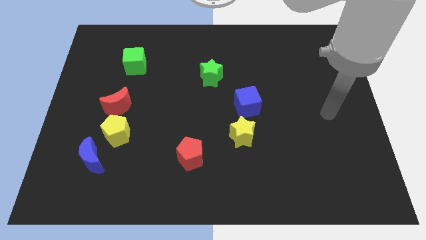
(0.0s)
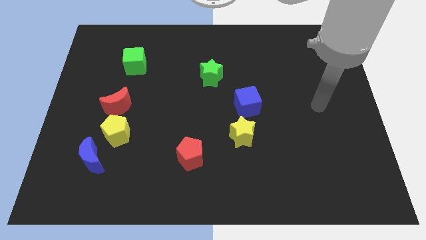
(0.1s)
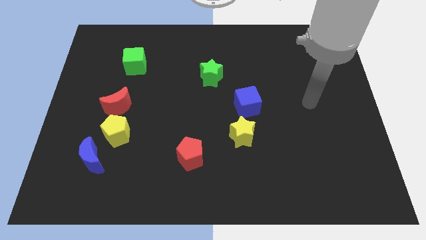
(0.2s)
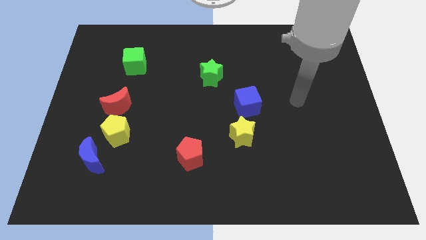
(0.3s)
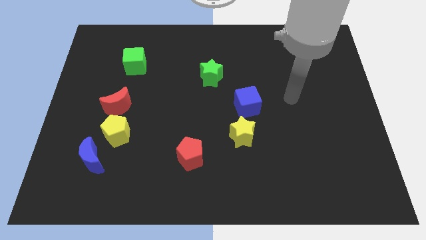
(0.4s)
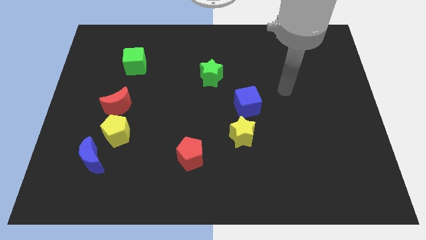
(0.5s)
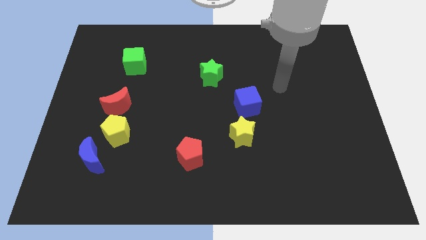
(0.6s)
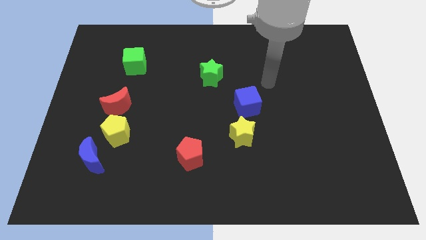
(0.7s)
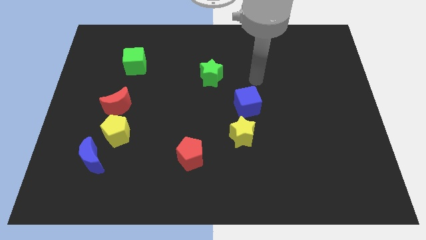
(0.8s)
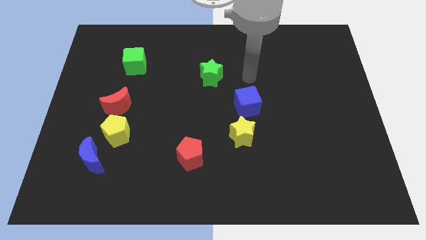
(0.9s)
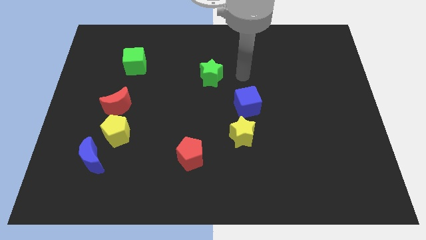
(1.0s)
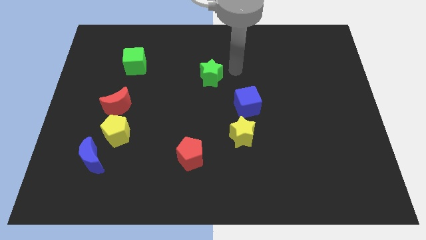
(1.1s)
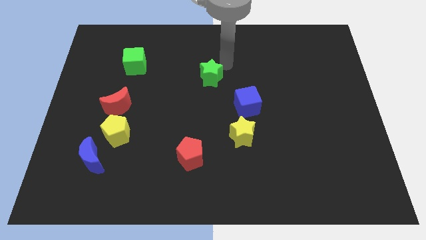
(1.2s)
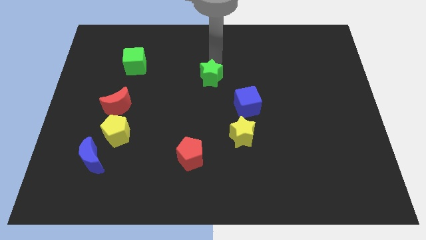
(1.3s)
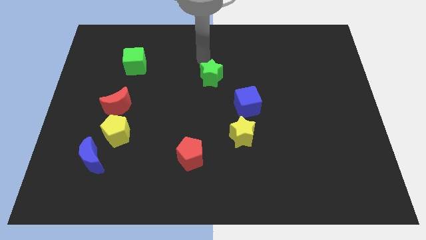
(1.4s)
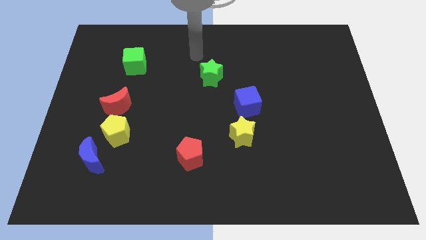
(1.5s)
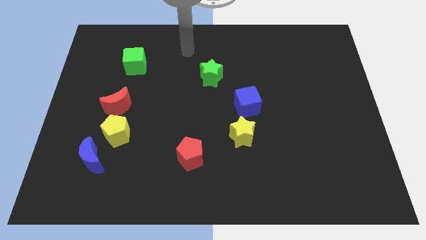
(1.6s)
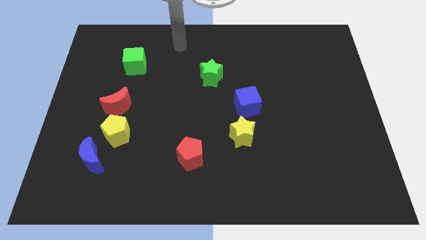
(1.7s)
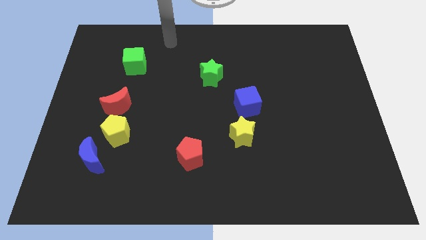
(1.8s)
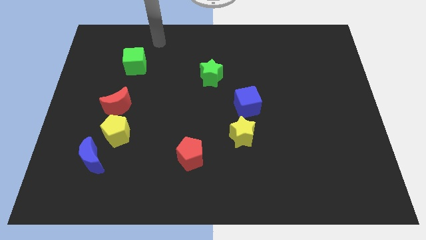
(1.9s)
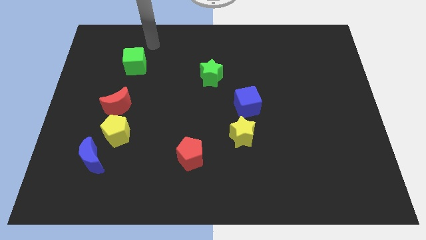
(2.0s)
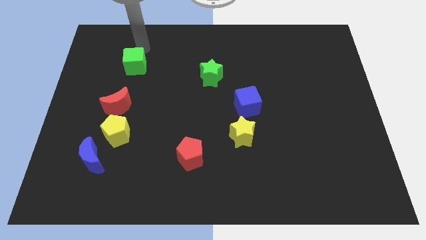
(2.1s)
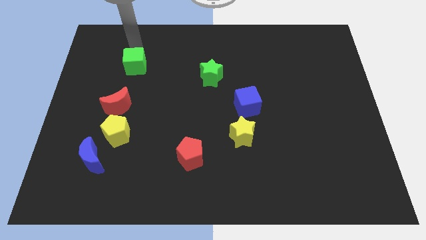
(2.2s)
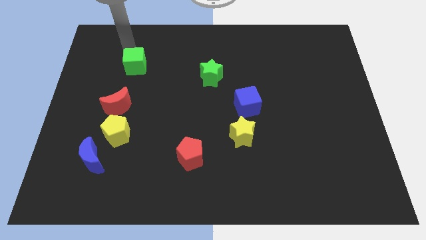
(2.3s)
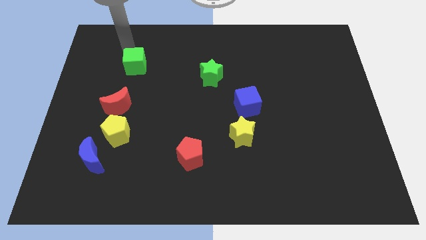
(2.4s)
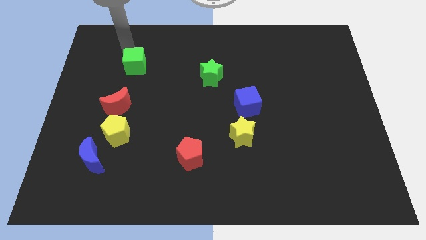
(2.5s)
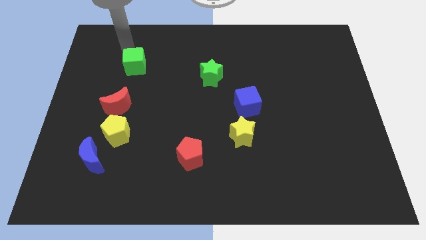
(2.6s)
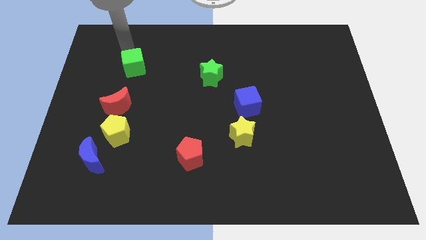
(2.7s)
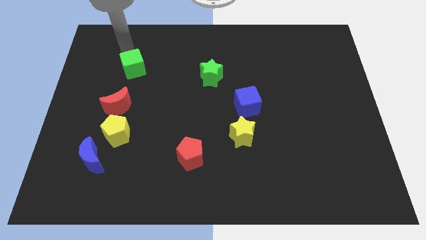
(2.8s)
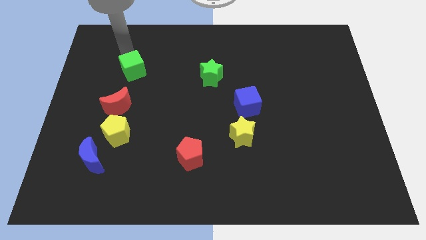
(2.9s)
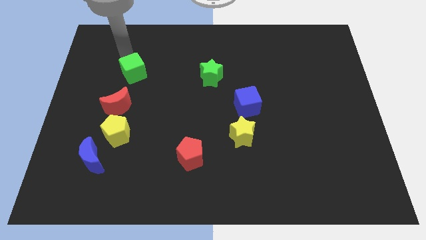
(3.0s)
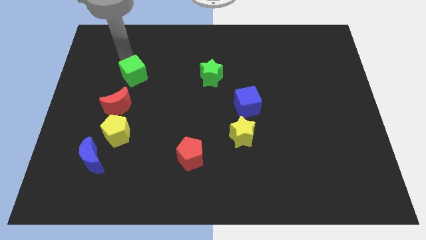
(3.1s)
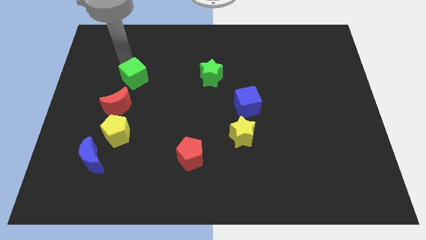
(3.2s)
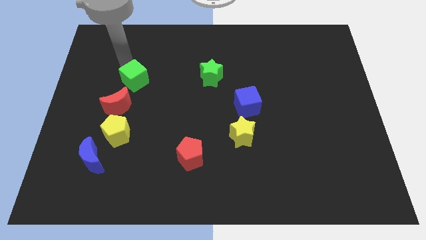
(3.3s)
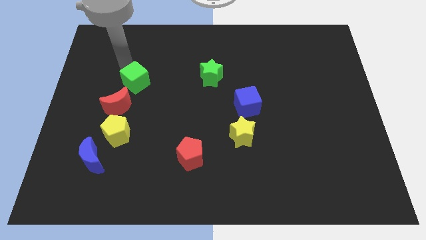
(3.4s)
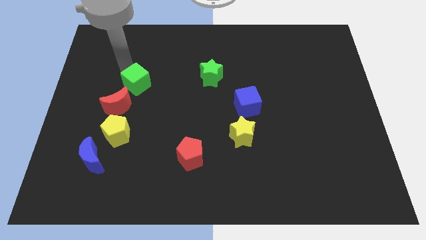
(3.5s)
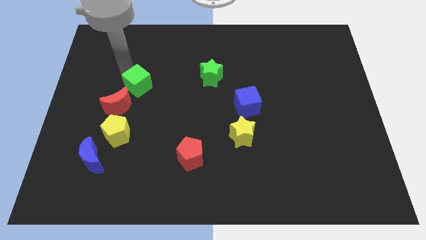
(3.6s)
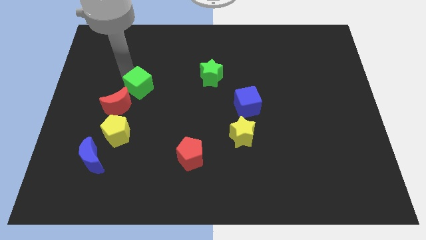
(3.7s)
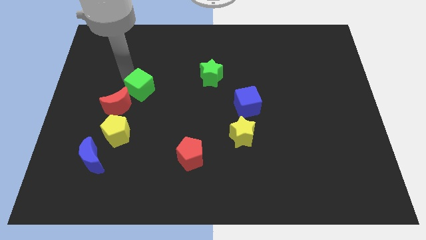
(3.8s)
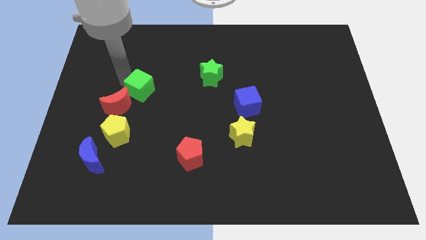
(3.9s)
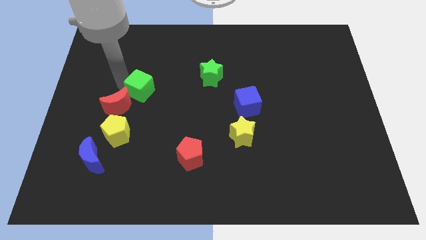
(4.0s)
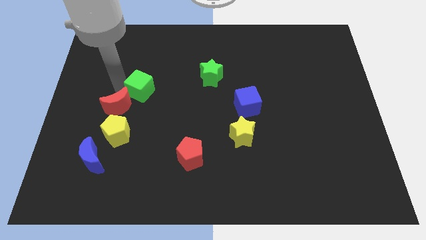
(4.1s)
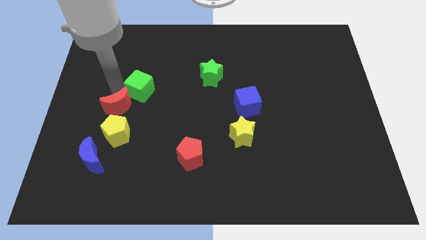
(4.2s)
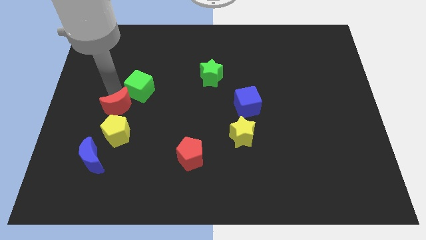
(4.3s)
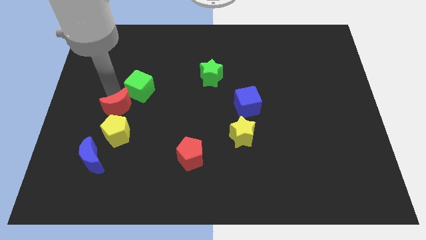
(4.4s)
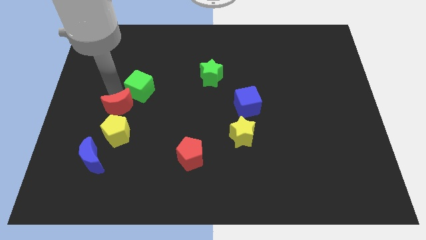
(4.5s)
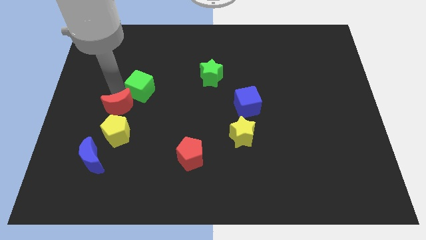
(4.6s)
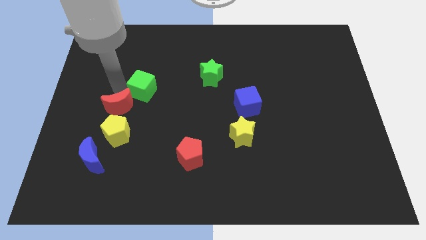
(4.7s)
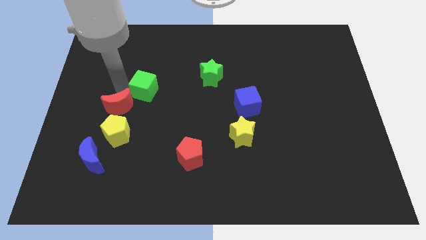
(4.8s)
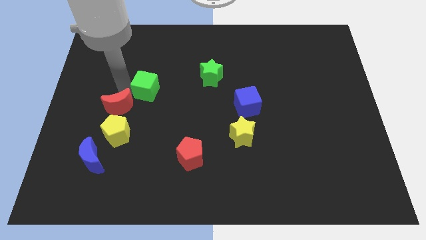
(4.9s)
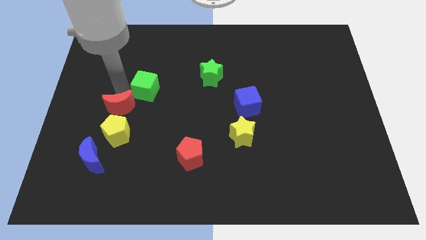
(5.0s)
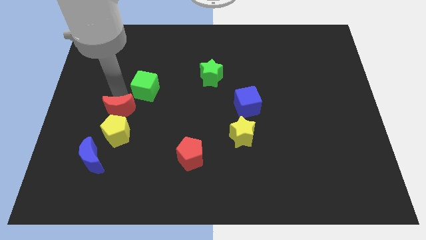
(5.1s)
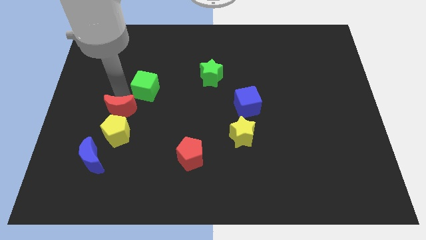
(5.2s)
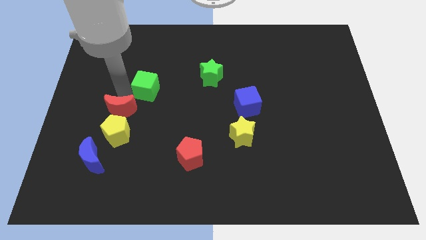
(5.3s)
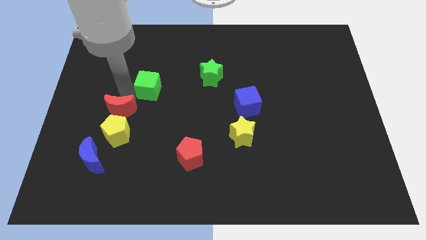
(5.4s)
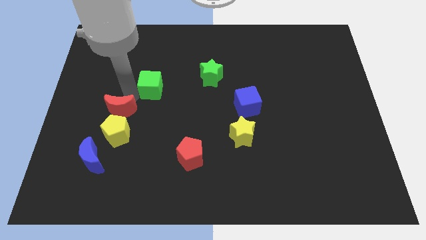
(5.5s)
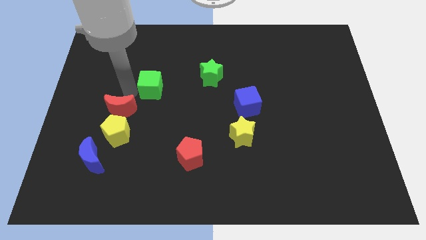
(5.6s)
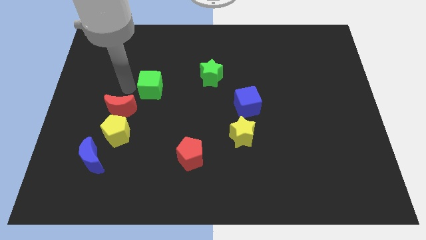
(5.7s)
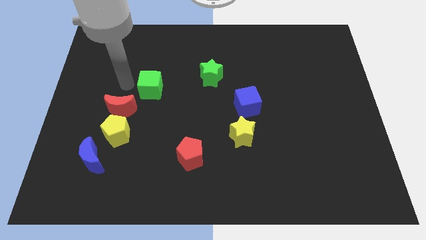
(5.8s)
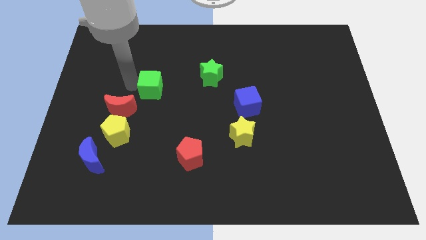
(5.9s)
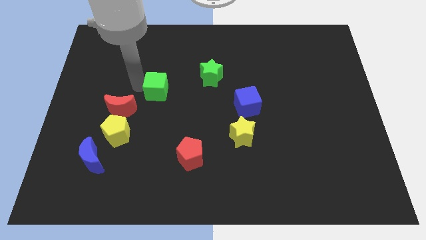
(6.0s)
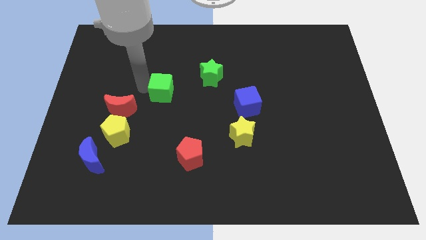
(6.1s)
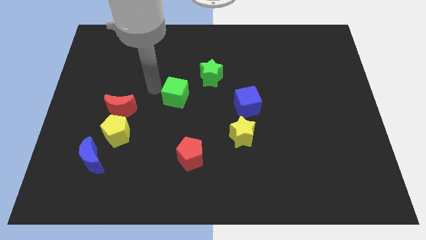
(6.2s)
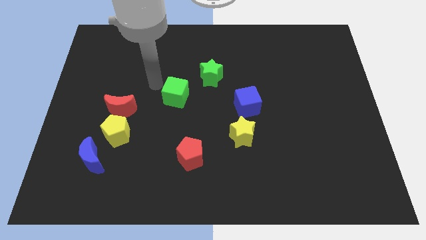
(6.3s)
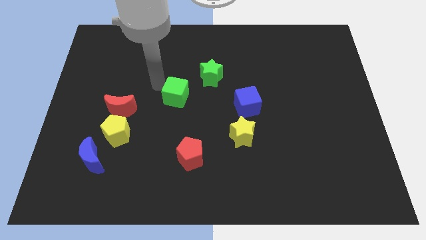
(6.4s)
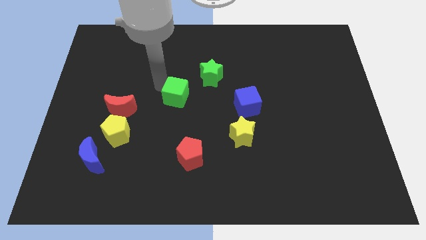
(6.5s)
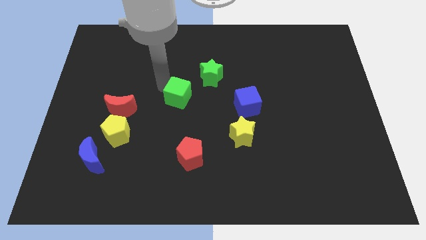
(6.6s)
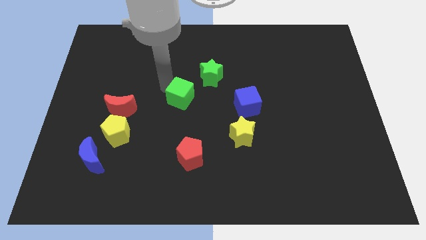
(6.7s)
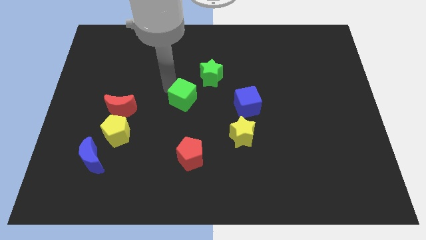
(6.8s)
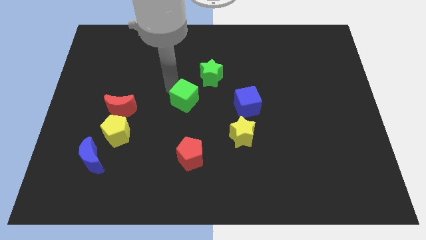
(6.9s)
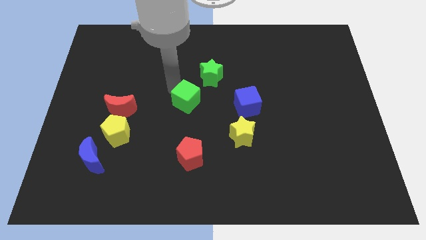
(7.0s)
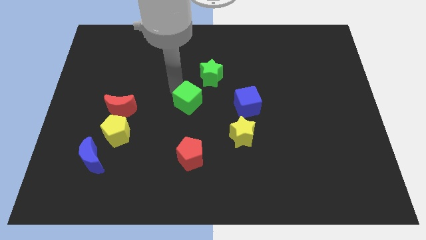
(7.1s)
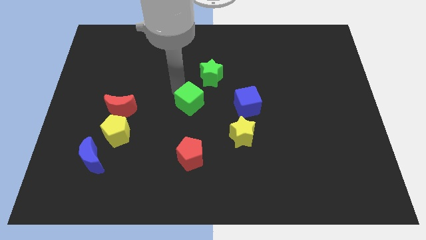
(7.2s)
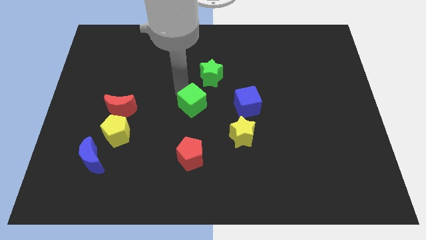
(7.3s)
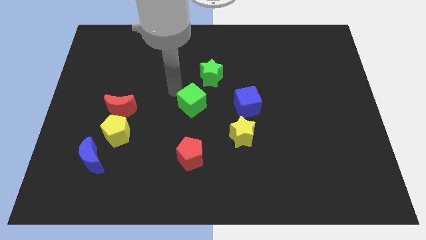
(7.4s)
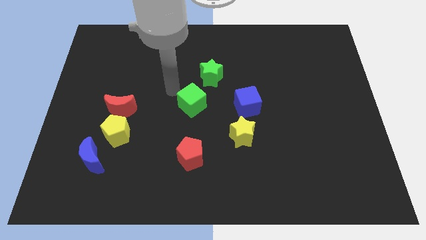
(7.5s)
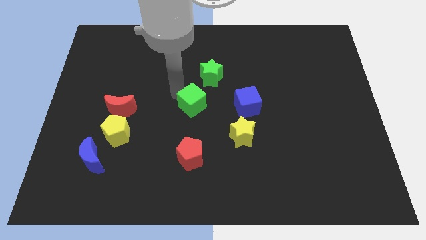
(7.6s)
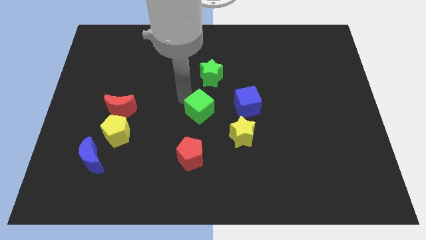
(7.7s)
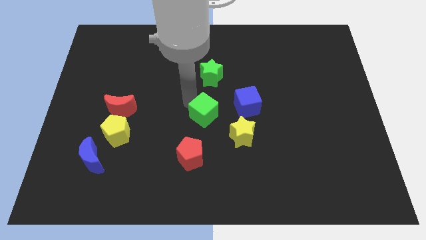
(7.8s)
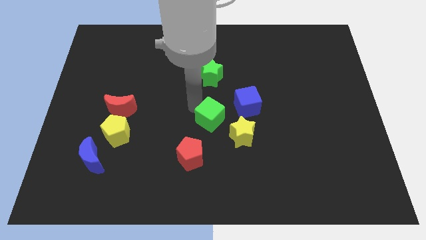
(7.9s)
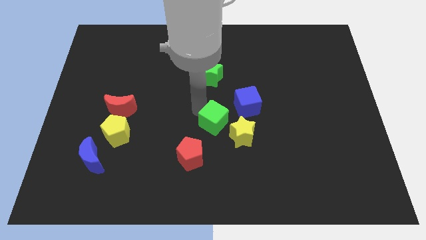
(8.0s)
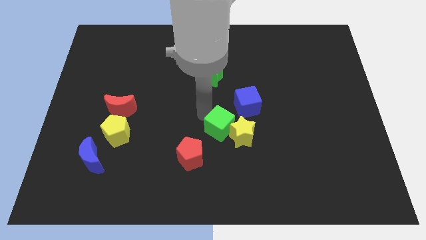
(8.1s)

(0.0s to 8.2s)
push the green cube next to the yellow star
